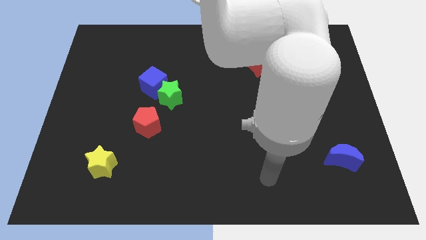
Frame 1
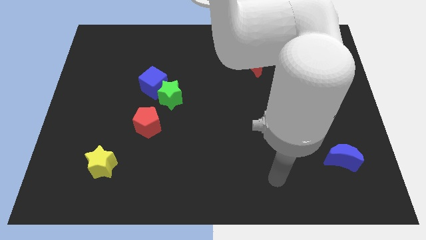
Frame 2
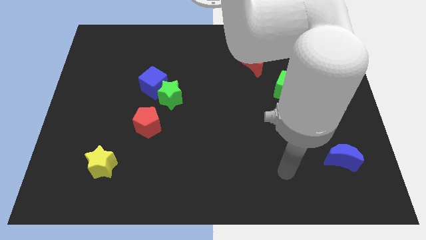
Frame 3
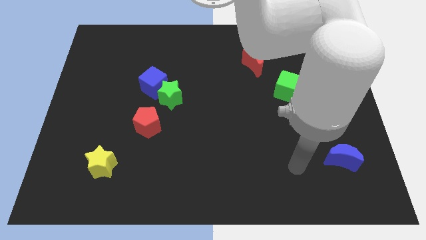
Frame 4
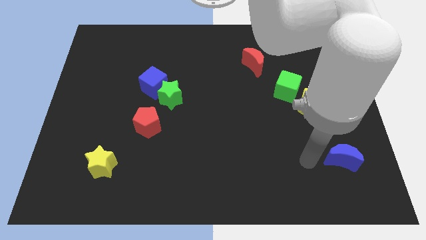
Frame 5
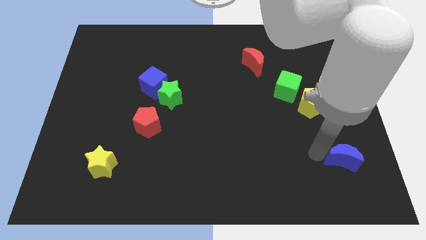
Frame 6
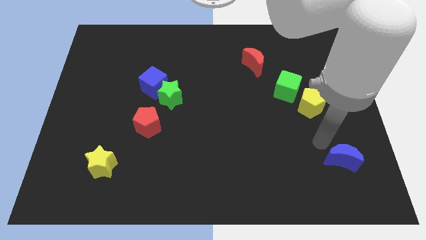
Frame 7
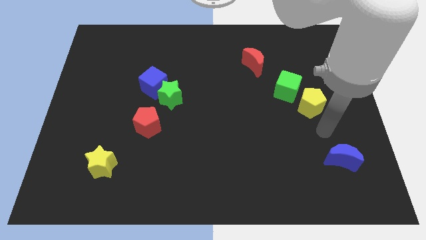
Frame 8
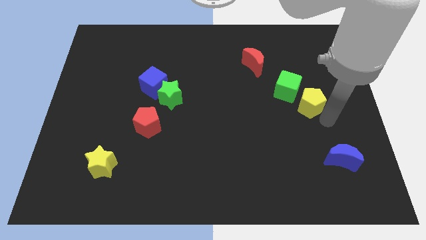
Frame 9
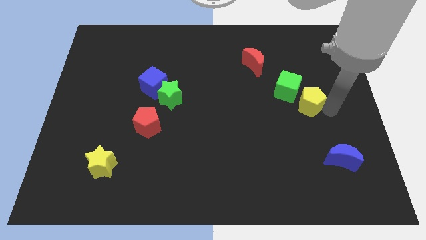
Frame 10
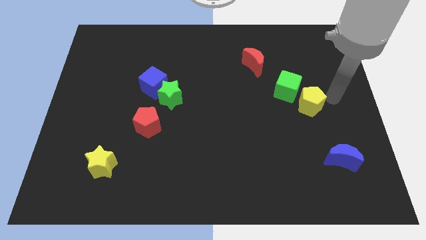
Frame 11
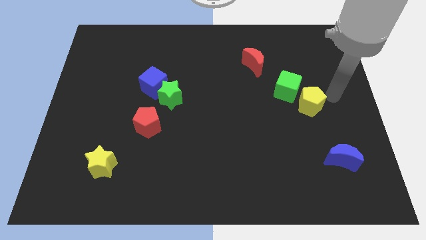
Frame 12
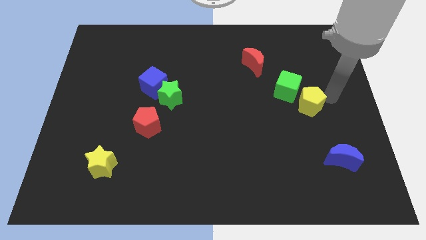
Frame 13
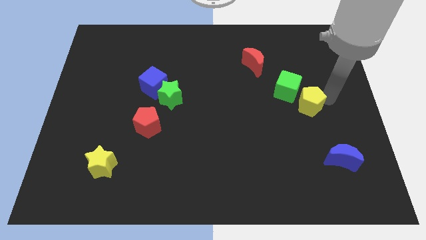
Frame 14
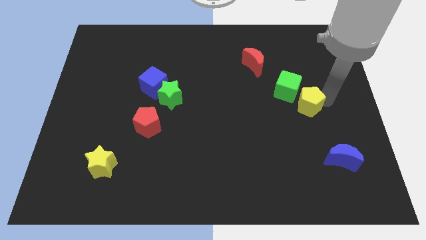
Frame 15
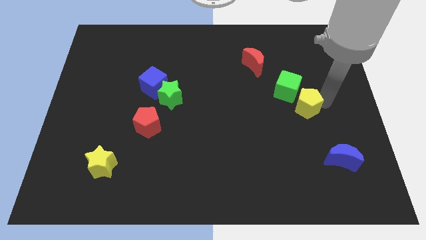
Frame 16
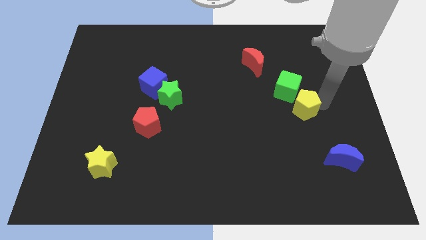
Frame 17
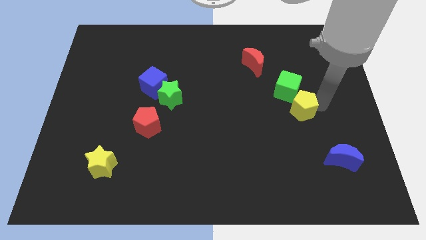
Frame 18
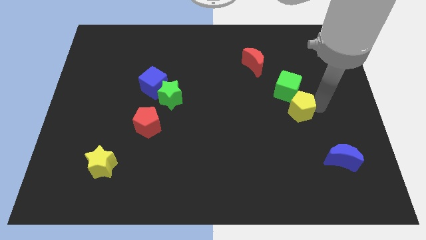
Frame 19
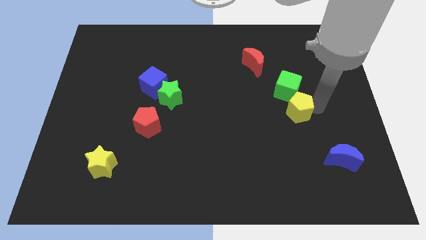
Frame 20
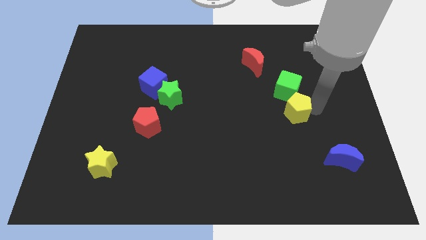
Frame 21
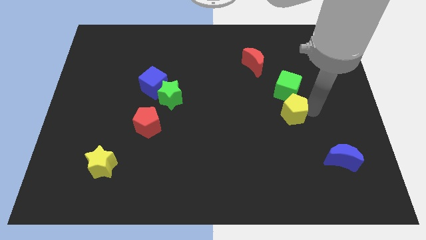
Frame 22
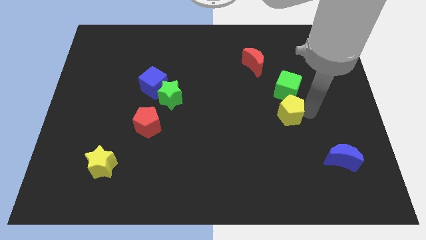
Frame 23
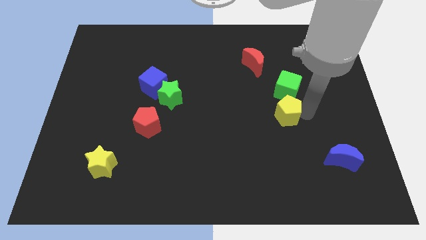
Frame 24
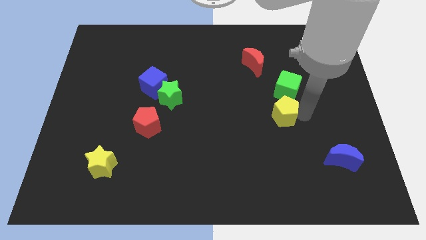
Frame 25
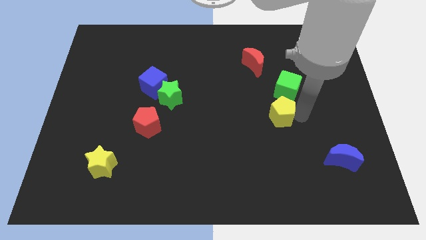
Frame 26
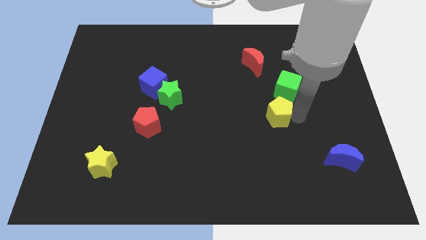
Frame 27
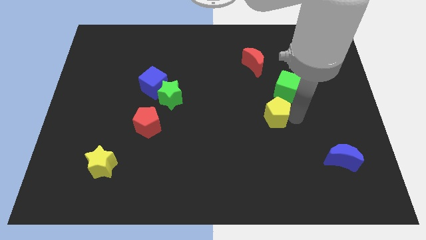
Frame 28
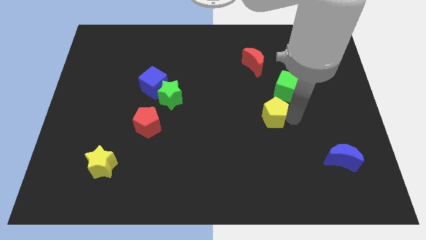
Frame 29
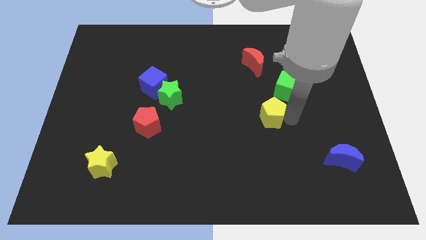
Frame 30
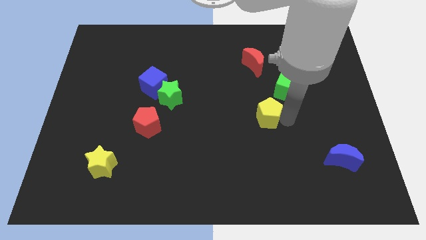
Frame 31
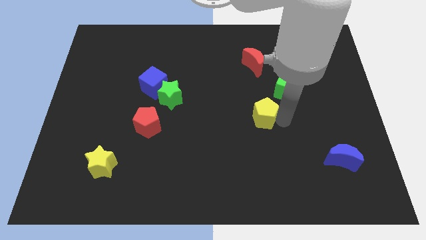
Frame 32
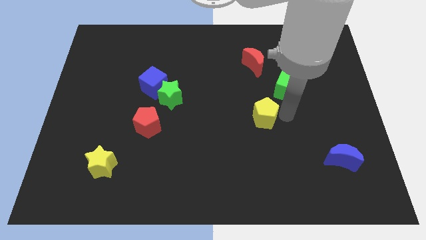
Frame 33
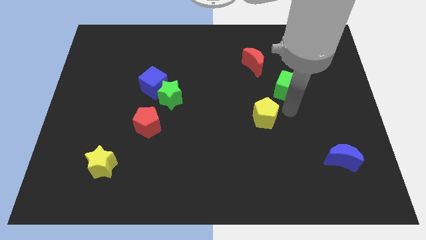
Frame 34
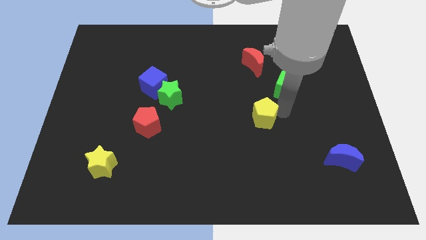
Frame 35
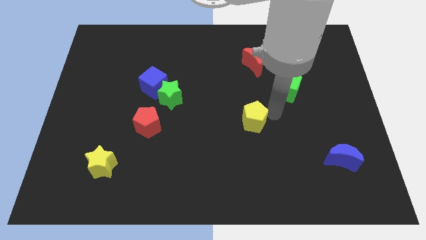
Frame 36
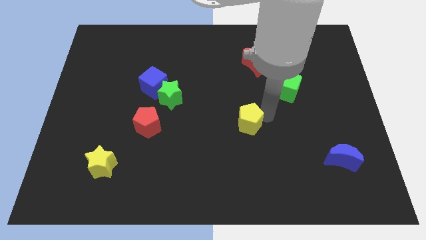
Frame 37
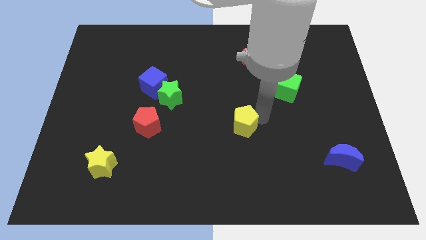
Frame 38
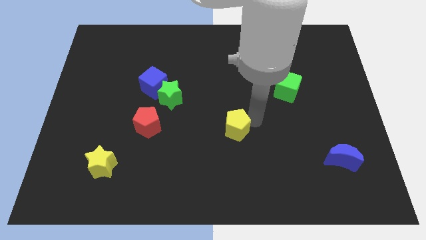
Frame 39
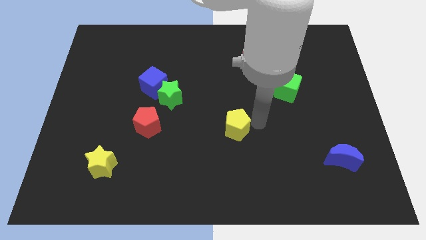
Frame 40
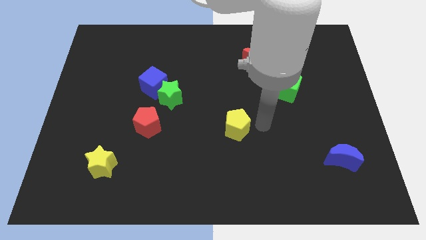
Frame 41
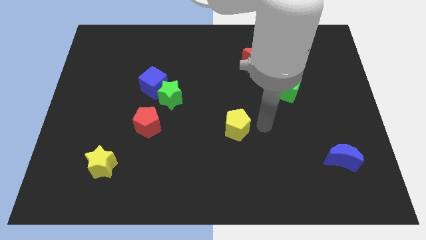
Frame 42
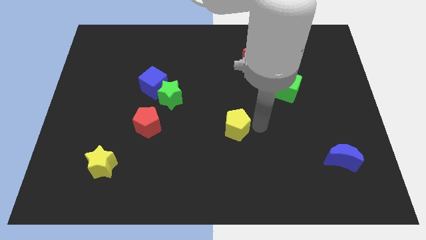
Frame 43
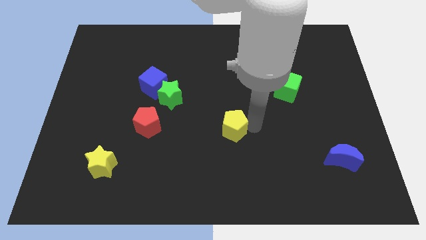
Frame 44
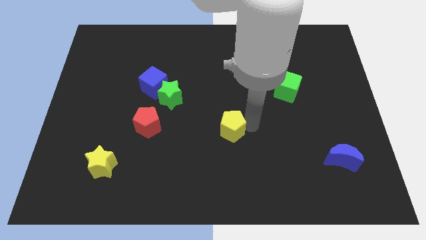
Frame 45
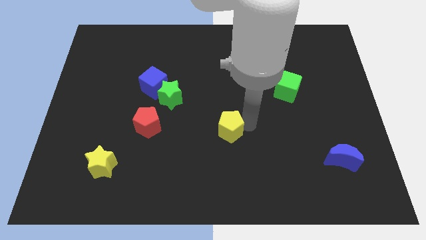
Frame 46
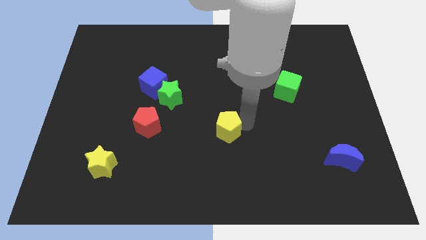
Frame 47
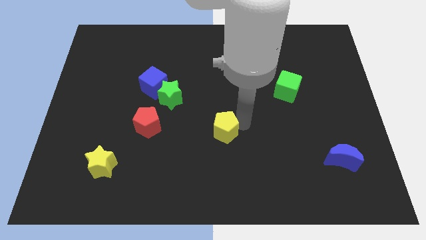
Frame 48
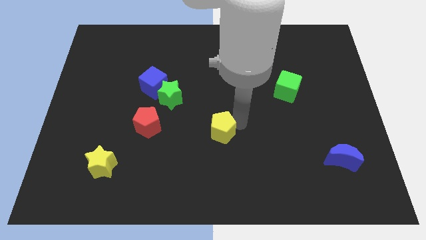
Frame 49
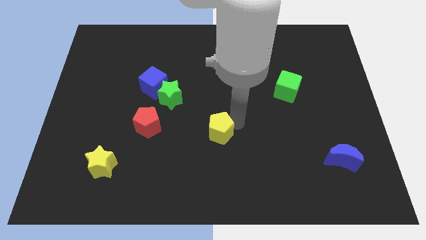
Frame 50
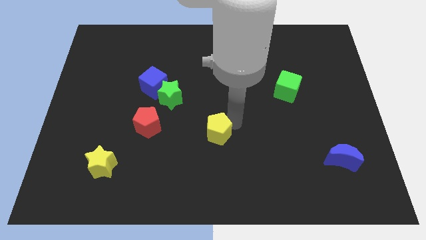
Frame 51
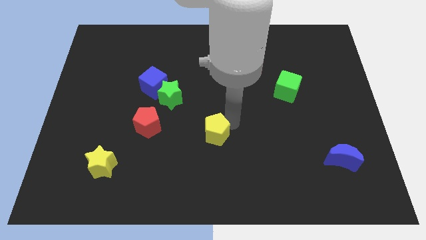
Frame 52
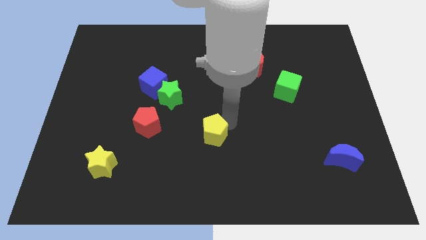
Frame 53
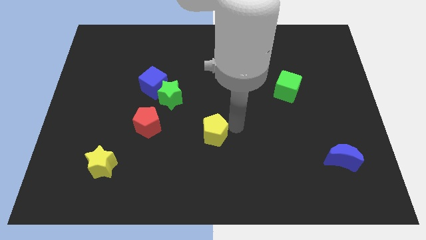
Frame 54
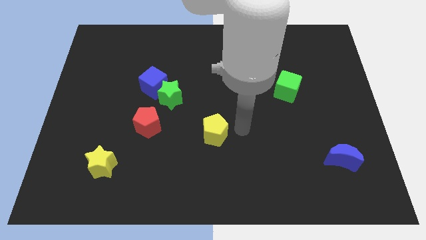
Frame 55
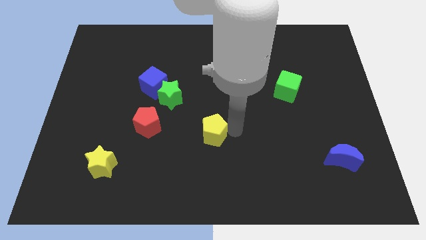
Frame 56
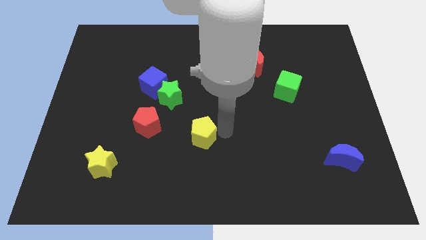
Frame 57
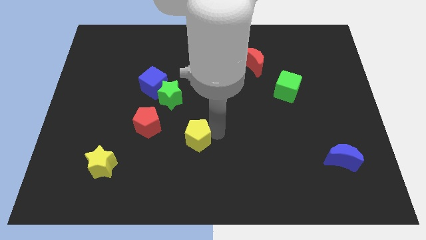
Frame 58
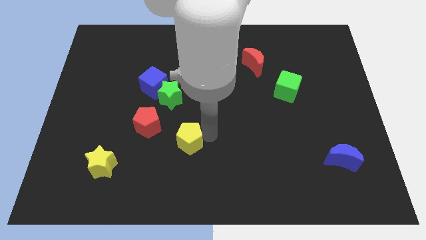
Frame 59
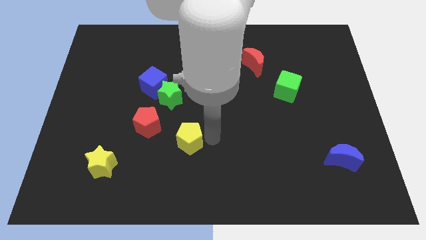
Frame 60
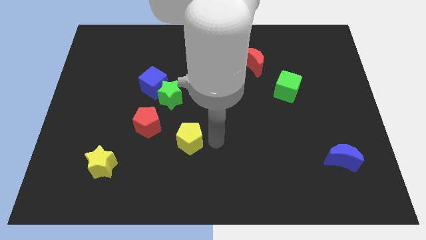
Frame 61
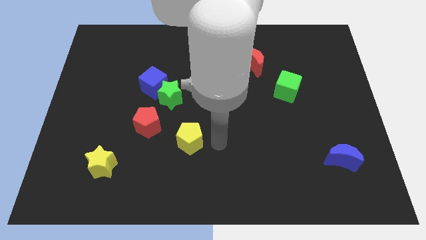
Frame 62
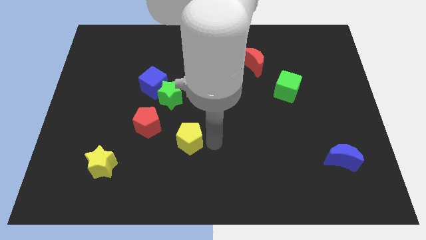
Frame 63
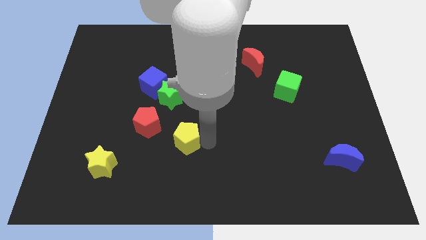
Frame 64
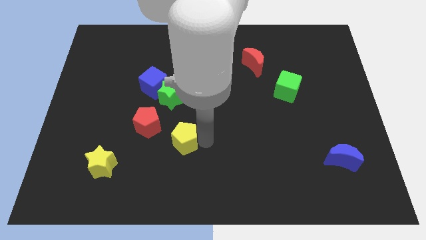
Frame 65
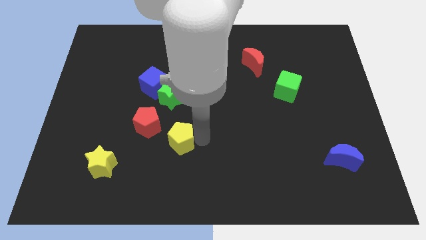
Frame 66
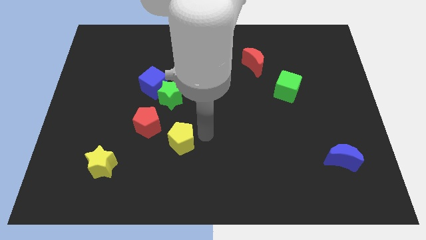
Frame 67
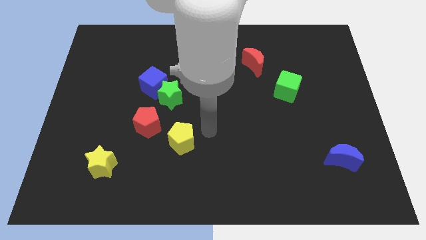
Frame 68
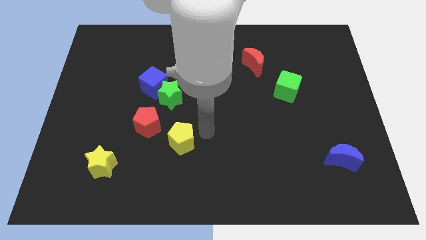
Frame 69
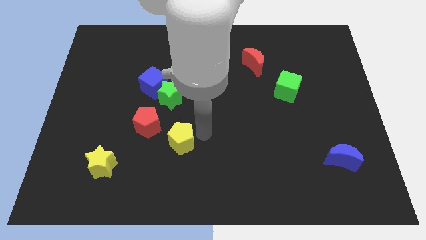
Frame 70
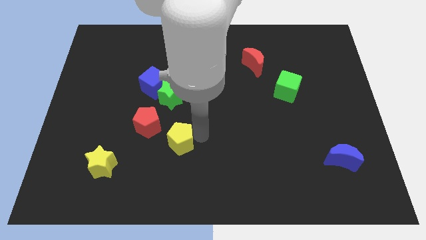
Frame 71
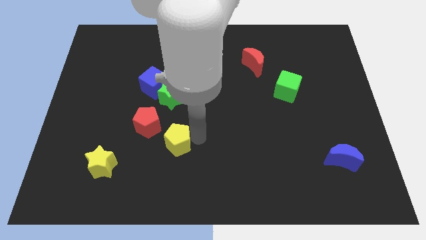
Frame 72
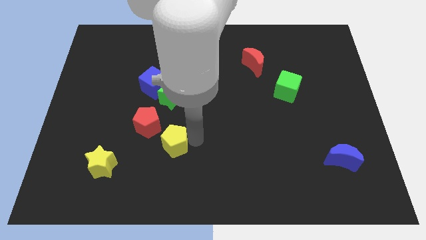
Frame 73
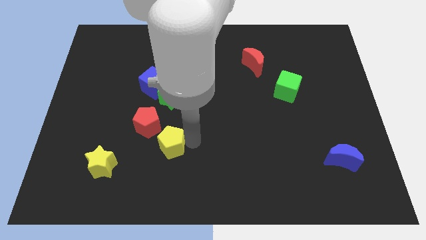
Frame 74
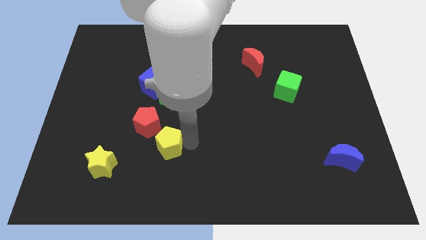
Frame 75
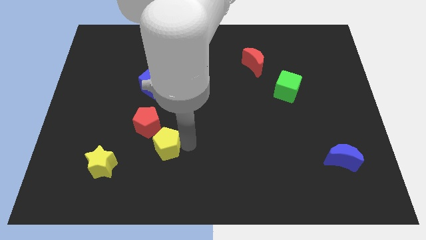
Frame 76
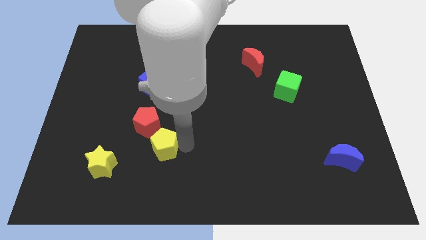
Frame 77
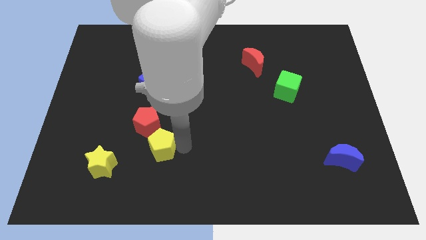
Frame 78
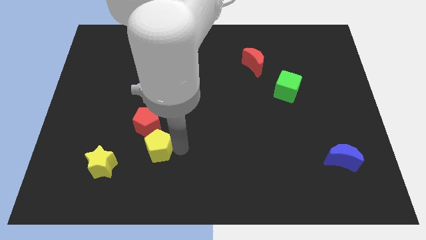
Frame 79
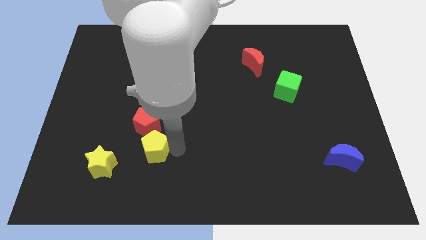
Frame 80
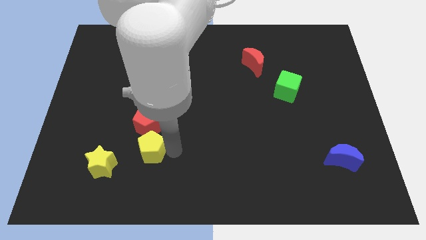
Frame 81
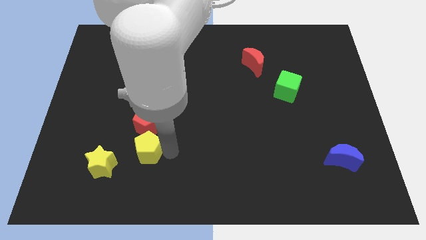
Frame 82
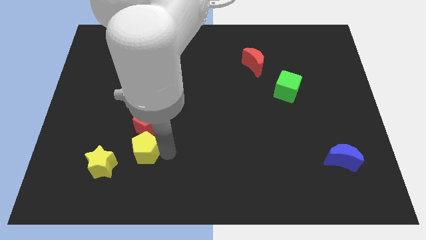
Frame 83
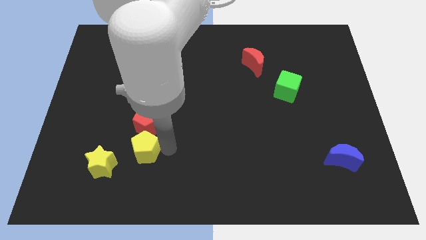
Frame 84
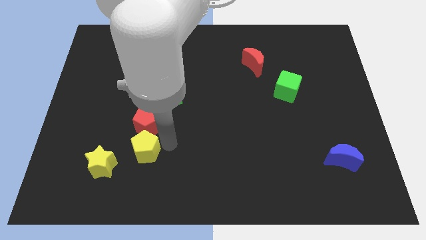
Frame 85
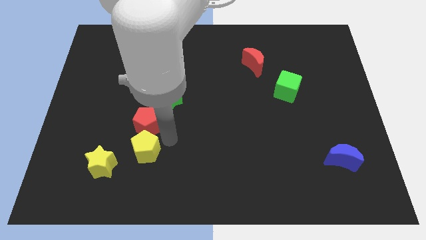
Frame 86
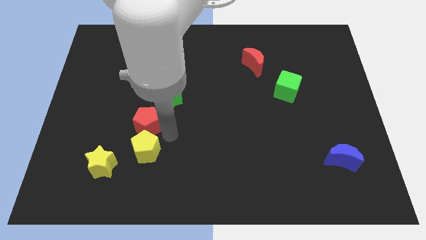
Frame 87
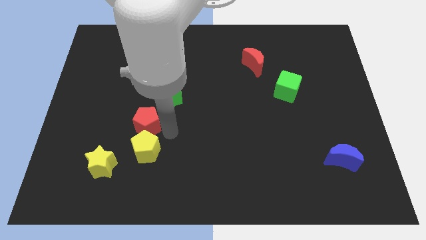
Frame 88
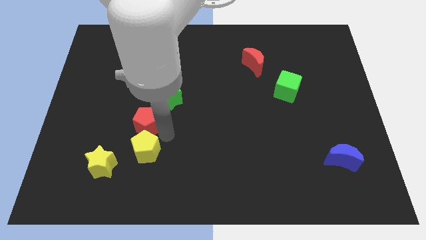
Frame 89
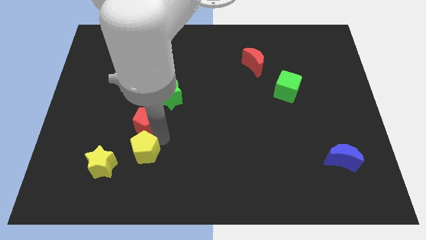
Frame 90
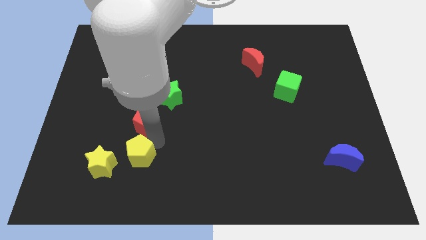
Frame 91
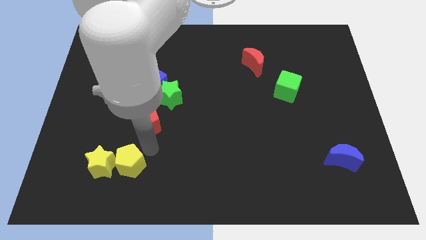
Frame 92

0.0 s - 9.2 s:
slide the yellow pentagon next to the yellow star
